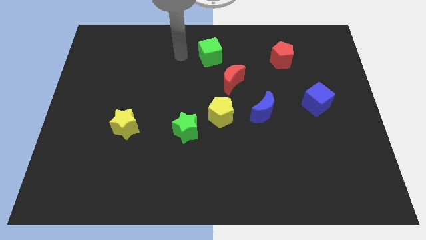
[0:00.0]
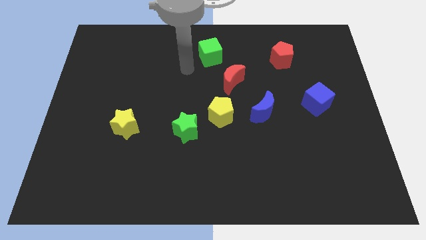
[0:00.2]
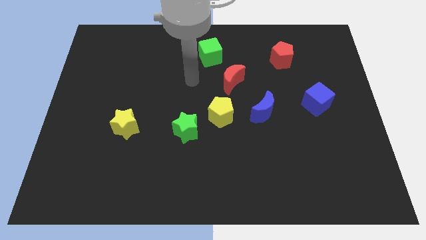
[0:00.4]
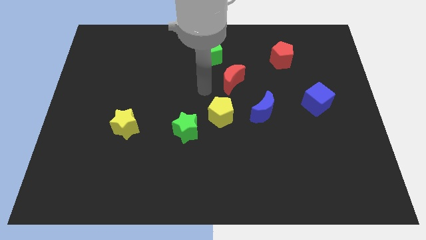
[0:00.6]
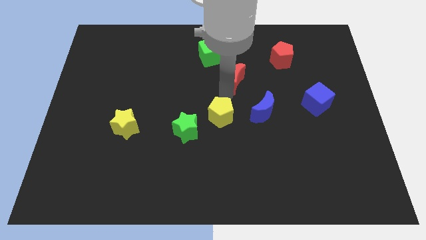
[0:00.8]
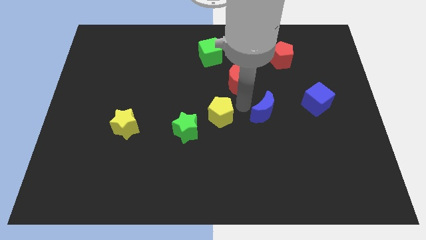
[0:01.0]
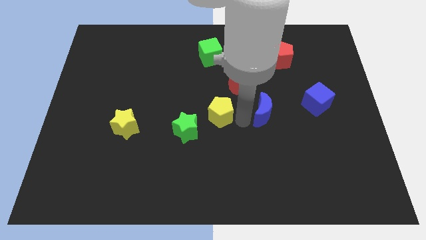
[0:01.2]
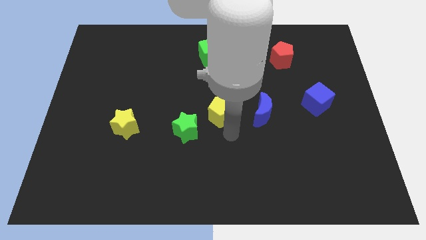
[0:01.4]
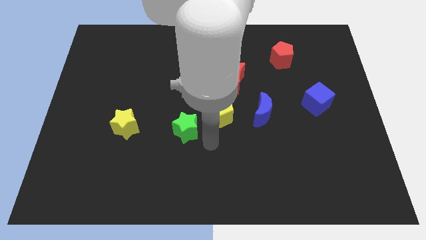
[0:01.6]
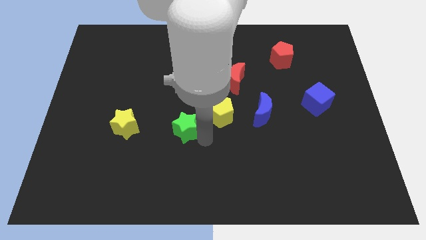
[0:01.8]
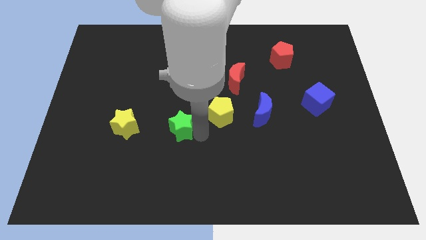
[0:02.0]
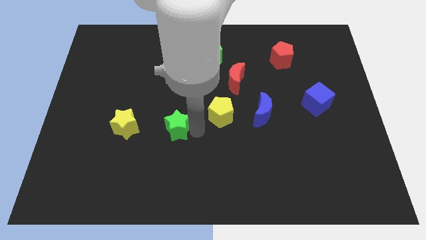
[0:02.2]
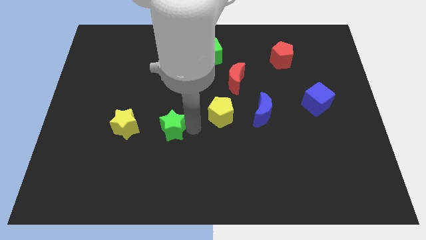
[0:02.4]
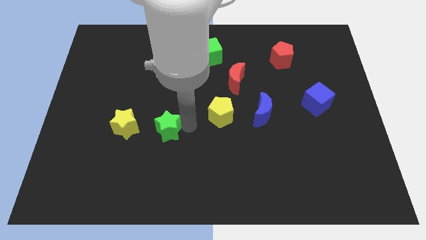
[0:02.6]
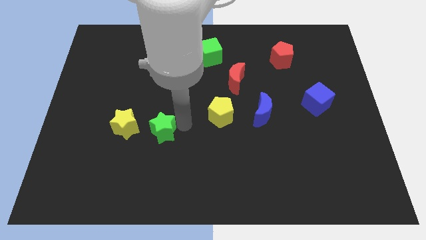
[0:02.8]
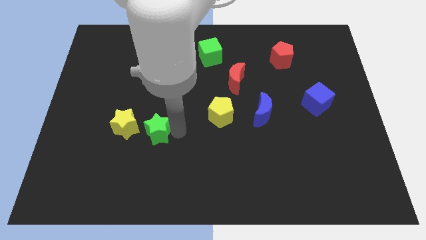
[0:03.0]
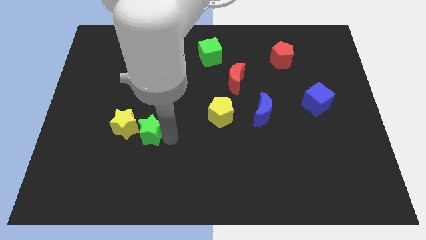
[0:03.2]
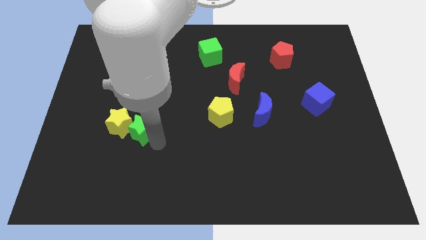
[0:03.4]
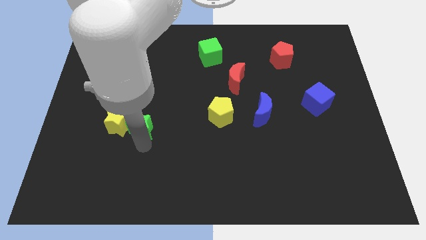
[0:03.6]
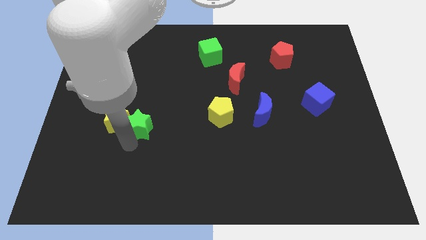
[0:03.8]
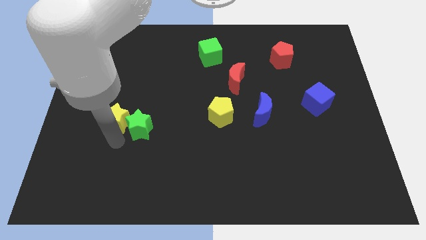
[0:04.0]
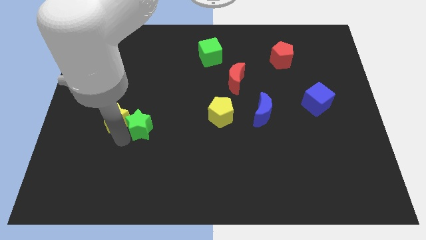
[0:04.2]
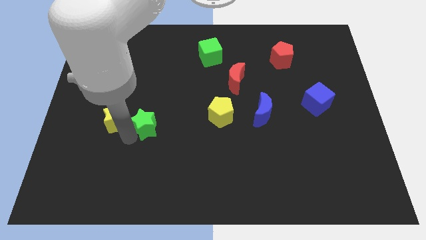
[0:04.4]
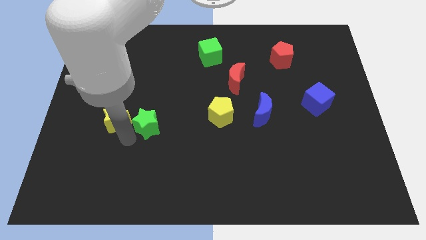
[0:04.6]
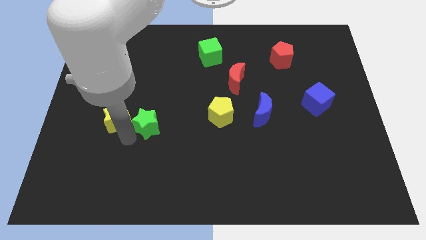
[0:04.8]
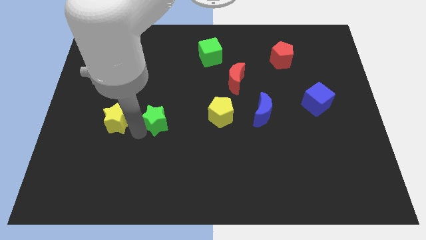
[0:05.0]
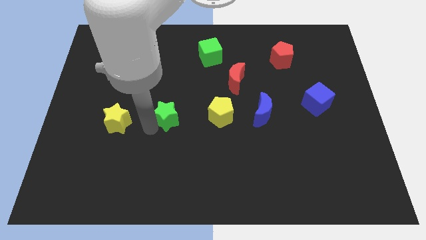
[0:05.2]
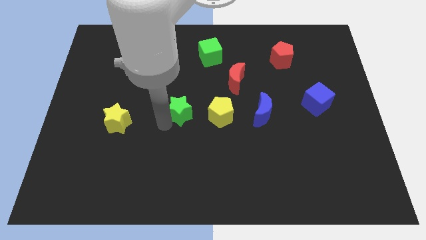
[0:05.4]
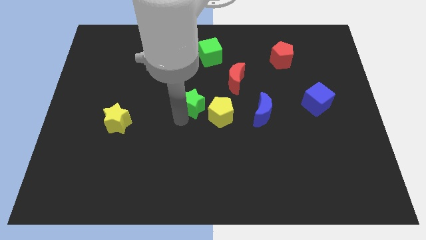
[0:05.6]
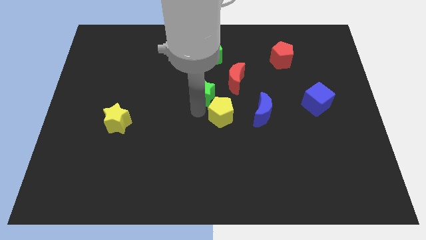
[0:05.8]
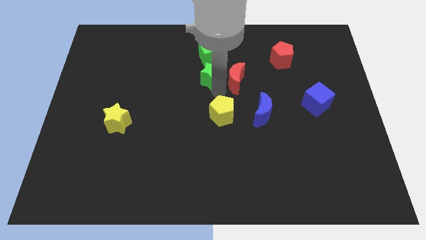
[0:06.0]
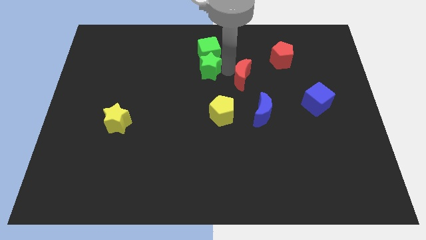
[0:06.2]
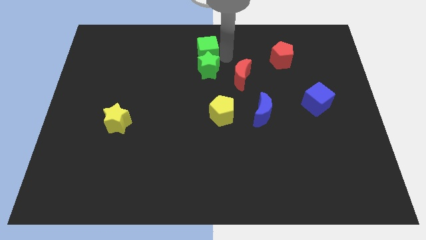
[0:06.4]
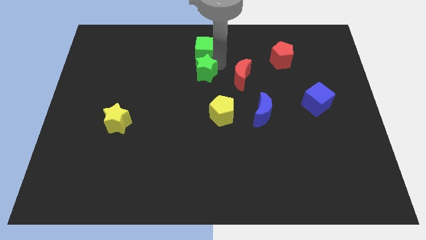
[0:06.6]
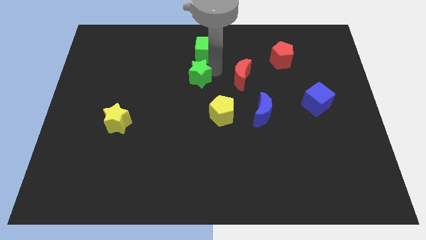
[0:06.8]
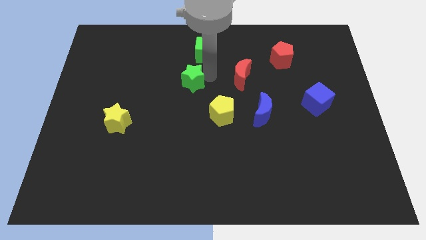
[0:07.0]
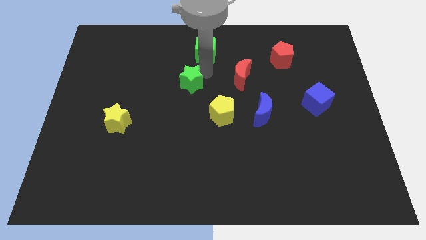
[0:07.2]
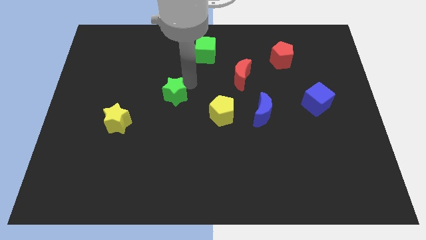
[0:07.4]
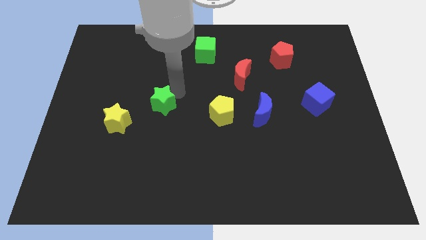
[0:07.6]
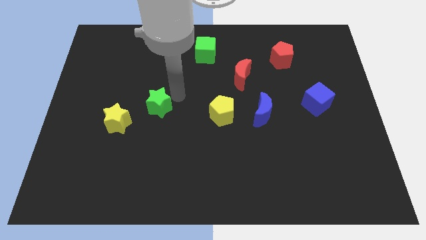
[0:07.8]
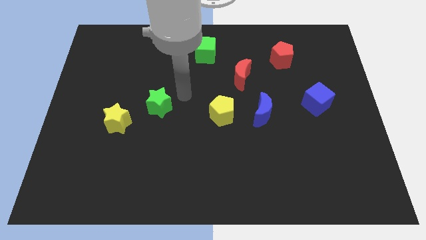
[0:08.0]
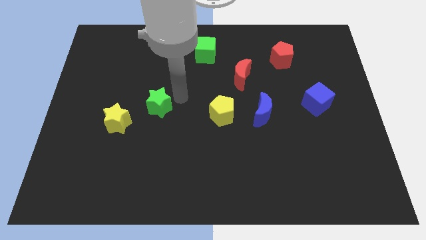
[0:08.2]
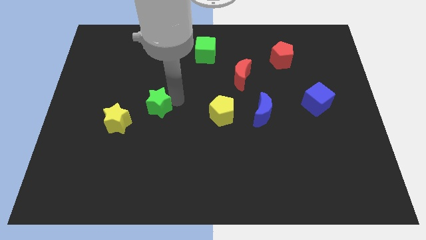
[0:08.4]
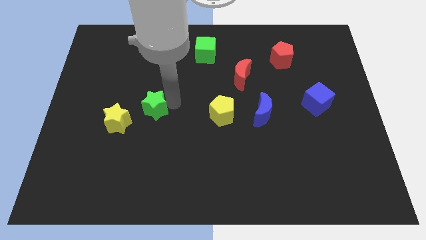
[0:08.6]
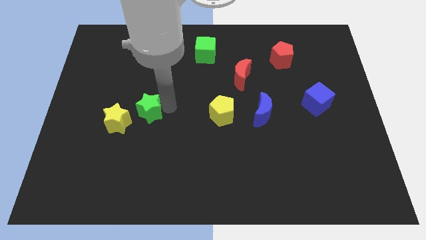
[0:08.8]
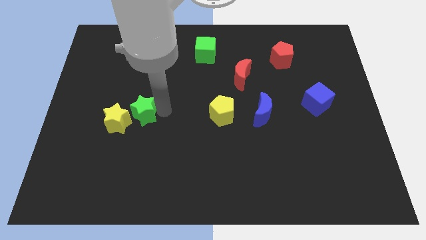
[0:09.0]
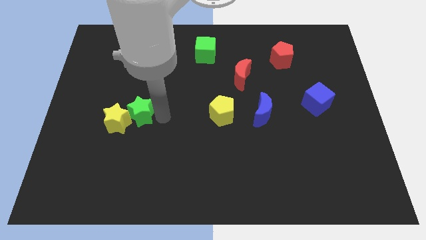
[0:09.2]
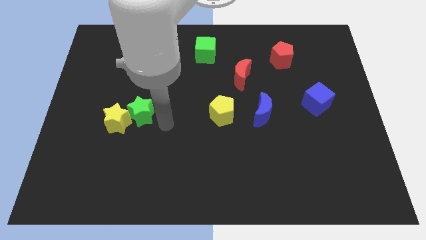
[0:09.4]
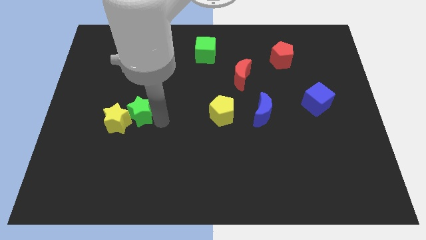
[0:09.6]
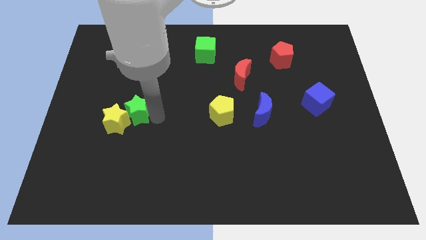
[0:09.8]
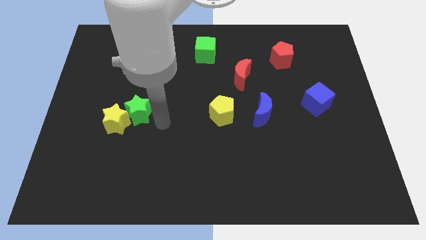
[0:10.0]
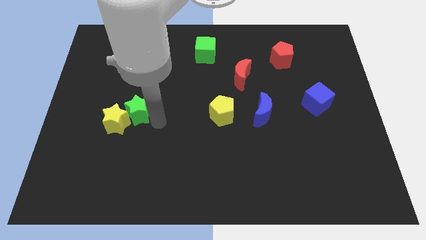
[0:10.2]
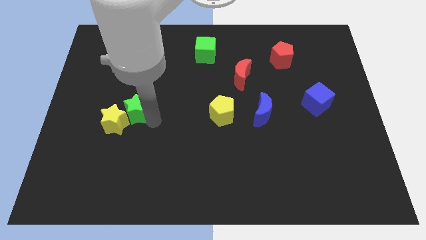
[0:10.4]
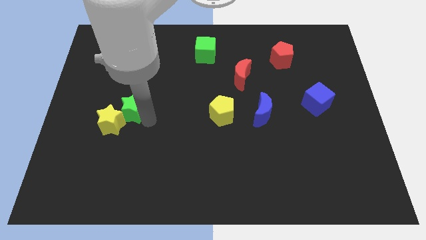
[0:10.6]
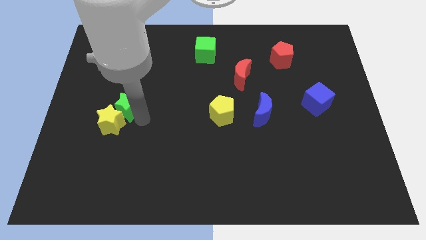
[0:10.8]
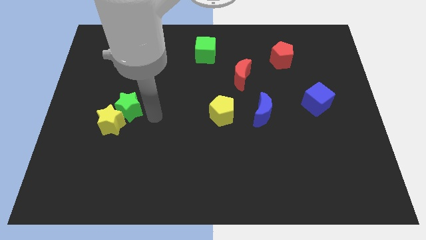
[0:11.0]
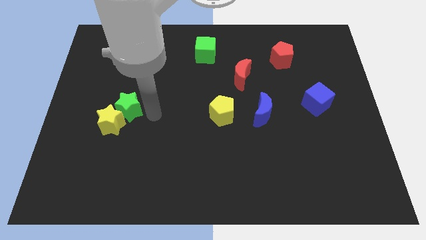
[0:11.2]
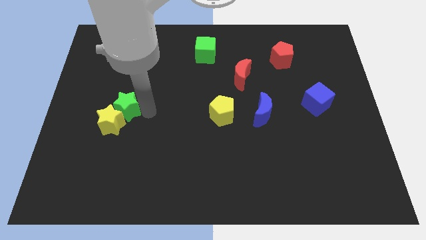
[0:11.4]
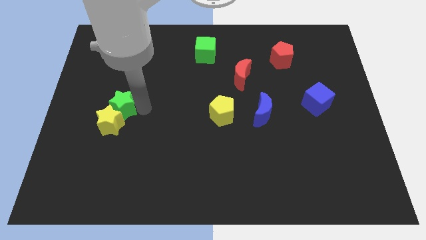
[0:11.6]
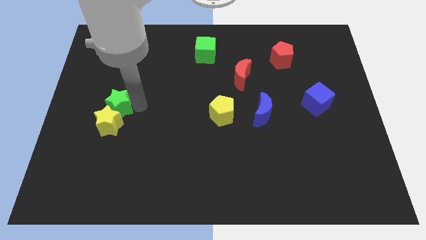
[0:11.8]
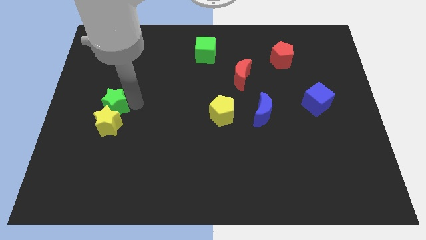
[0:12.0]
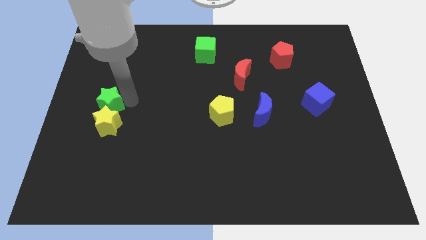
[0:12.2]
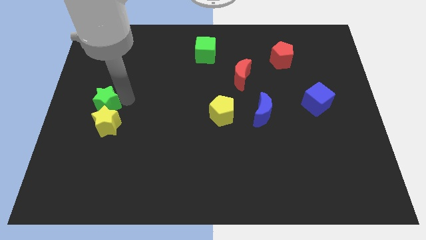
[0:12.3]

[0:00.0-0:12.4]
move the green star to the left side of the board

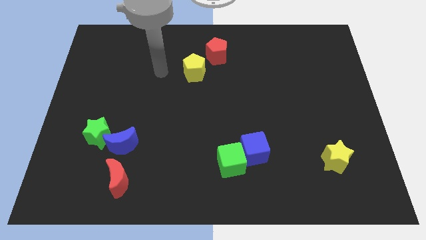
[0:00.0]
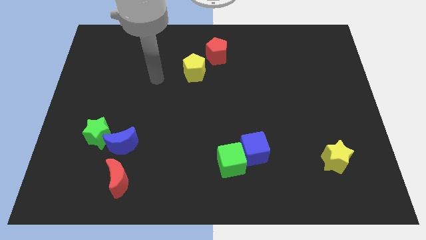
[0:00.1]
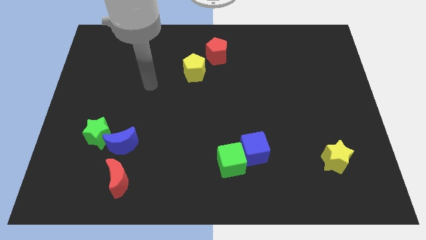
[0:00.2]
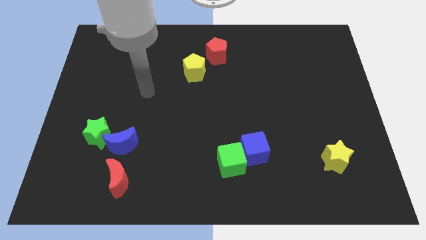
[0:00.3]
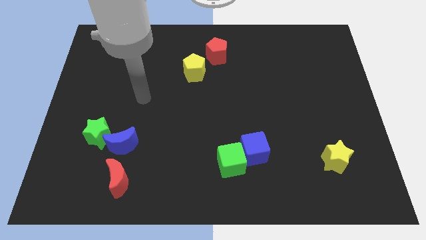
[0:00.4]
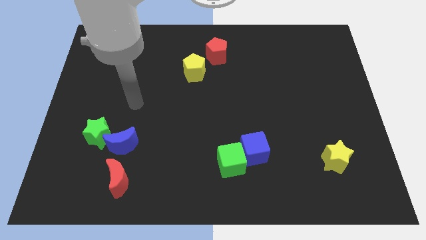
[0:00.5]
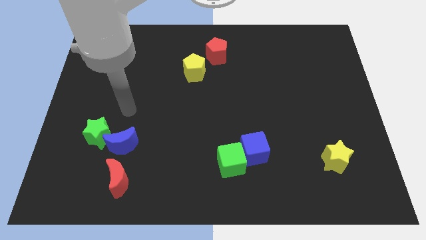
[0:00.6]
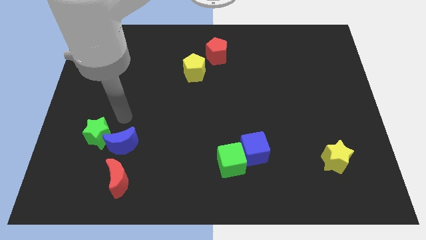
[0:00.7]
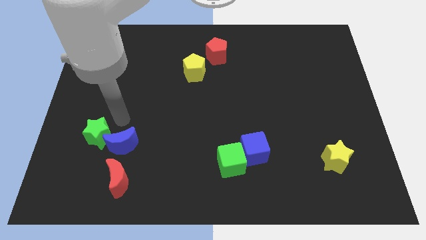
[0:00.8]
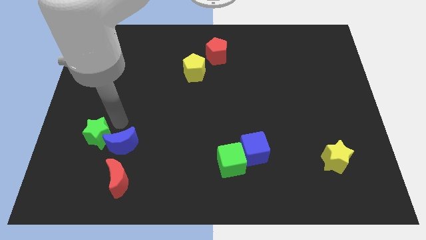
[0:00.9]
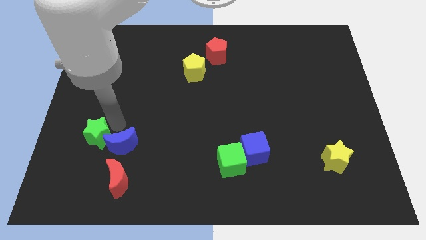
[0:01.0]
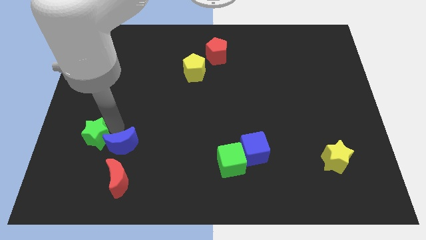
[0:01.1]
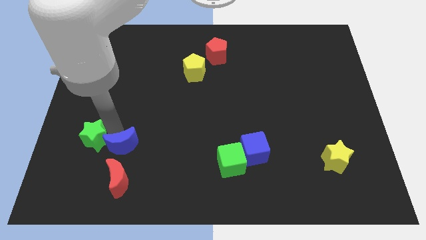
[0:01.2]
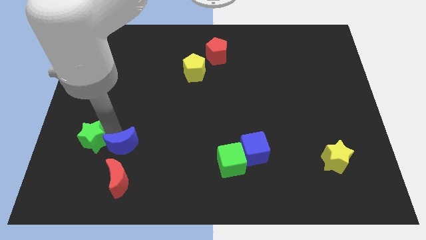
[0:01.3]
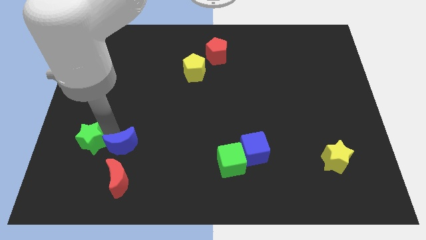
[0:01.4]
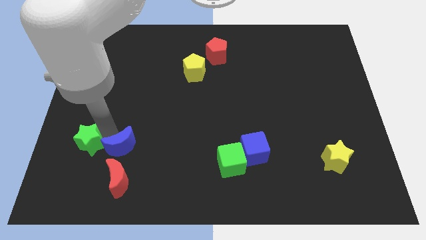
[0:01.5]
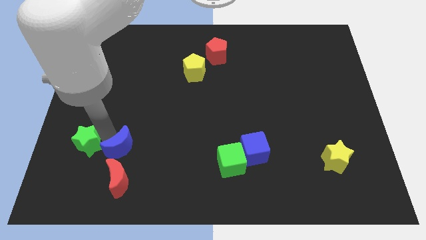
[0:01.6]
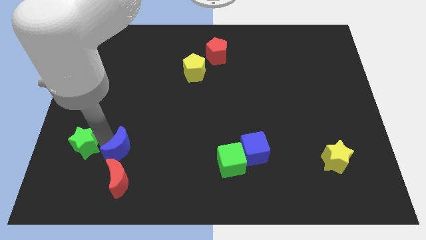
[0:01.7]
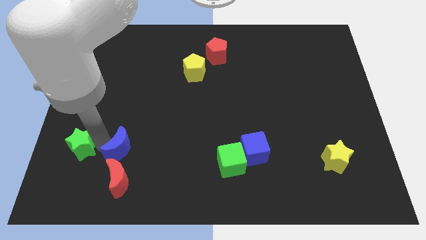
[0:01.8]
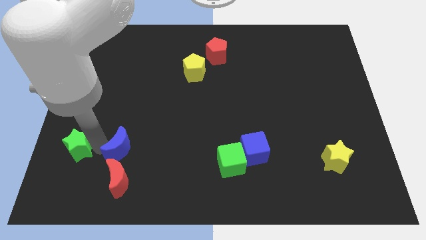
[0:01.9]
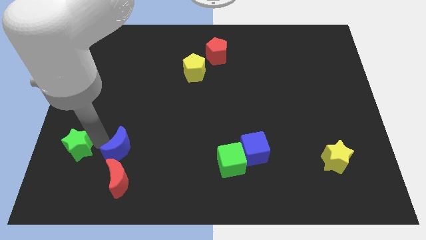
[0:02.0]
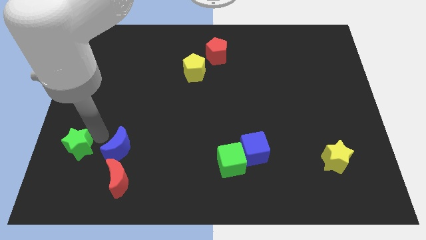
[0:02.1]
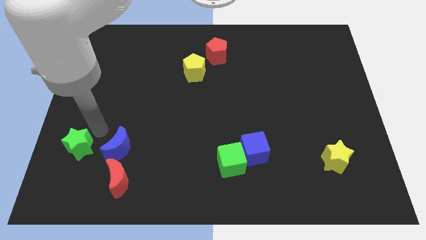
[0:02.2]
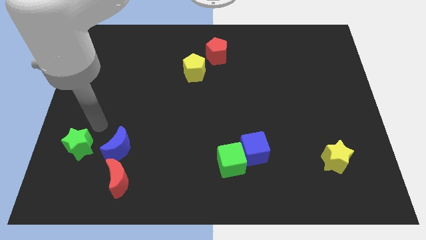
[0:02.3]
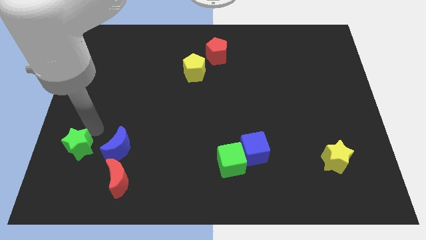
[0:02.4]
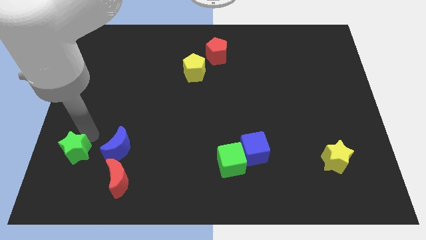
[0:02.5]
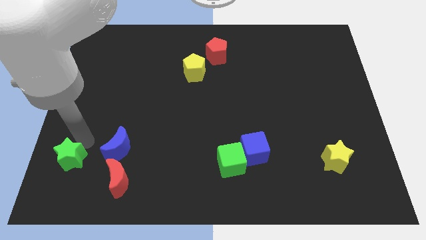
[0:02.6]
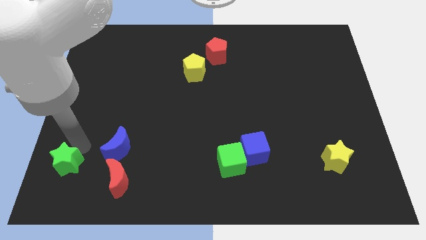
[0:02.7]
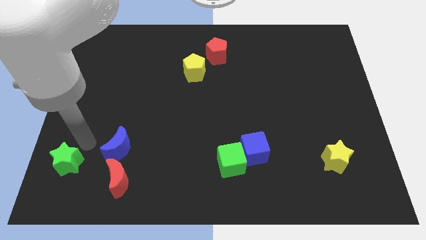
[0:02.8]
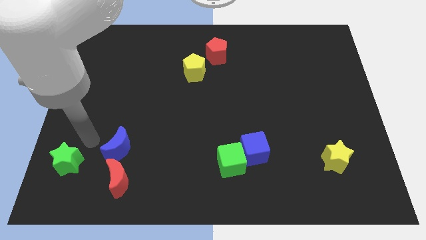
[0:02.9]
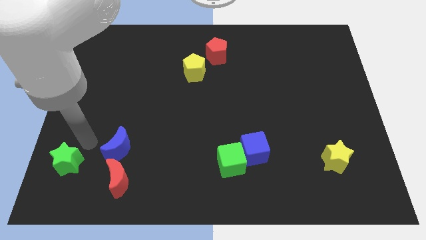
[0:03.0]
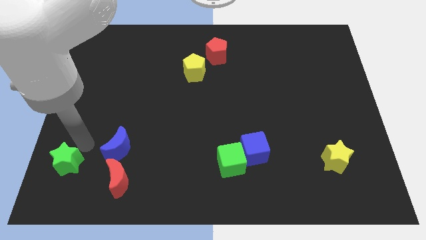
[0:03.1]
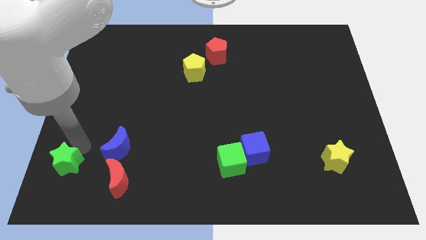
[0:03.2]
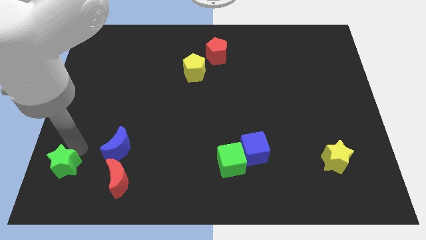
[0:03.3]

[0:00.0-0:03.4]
put the green star to the bottom left
